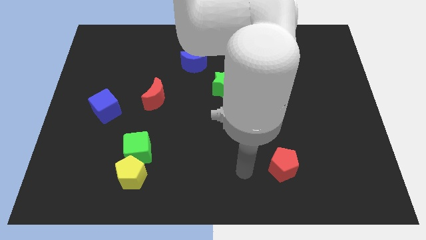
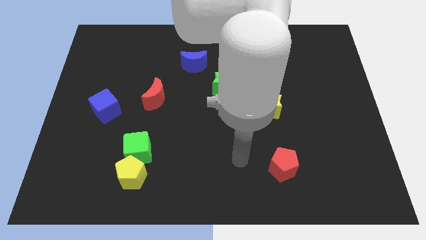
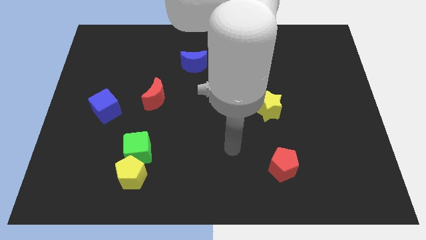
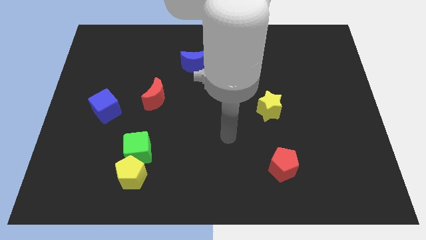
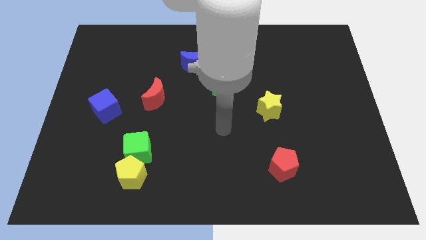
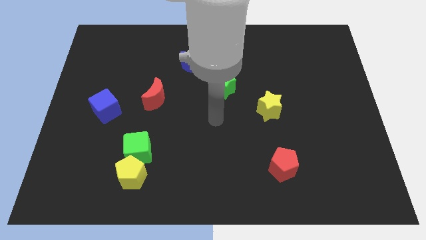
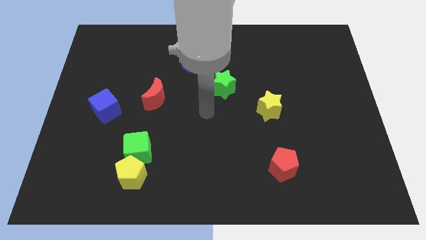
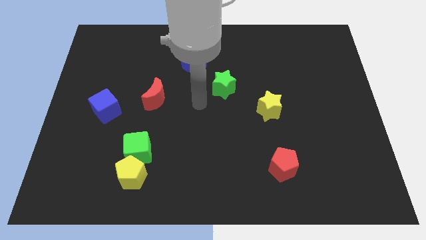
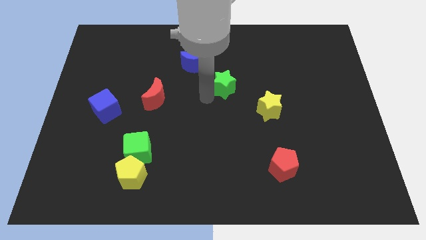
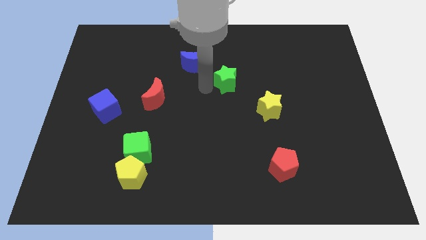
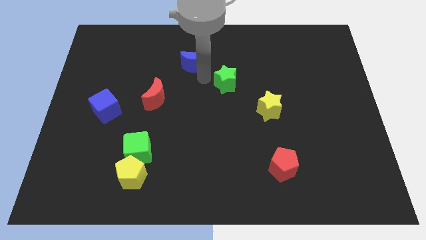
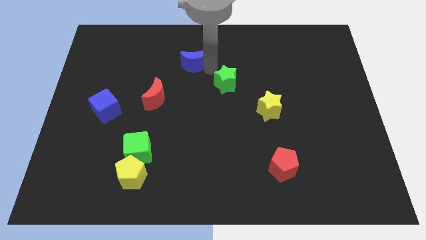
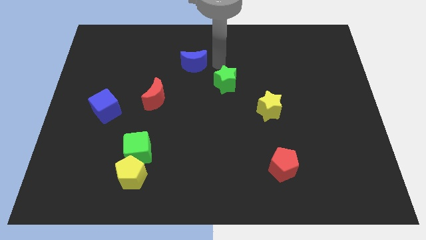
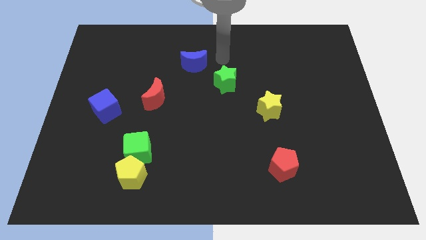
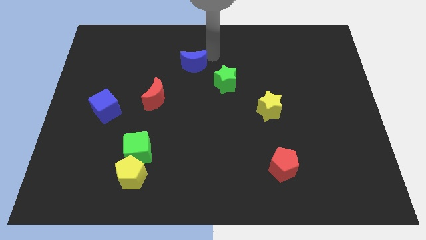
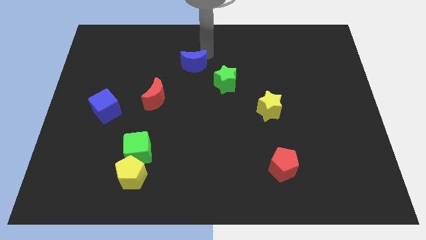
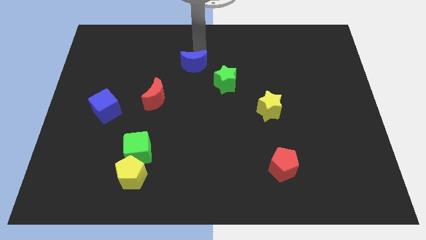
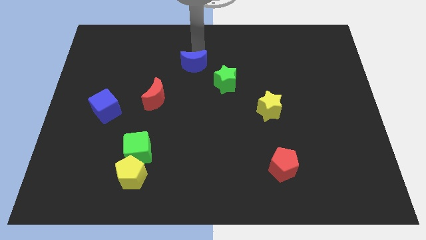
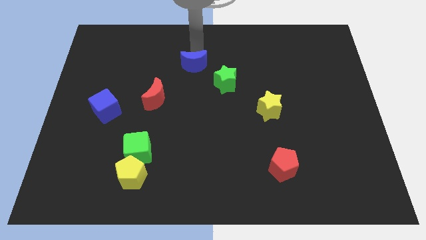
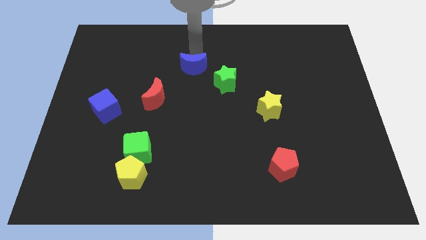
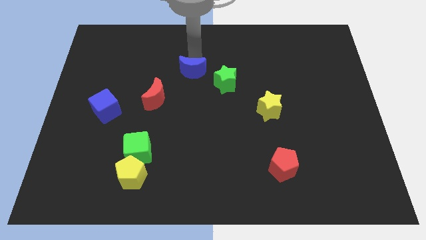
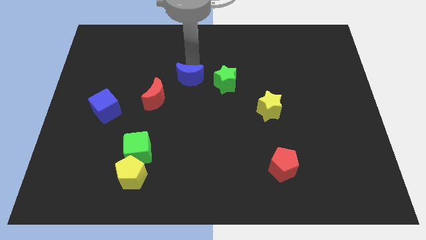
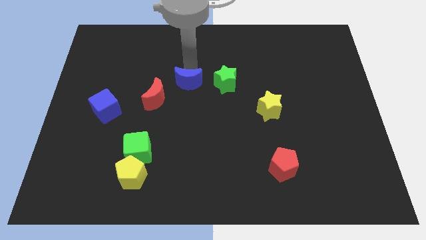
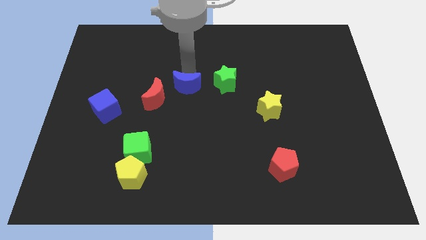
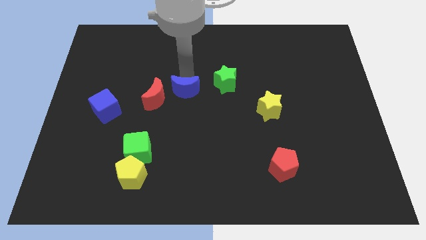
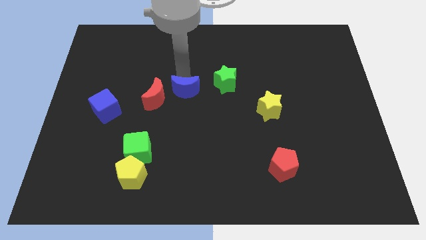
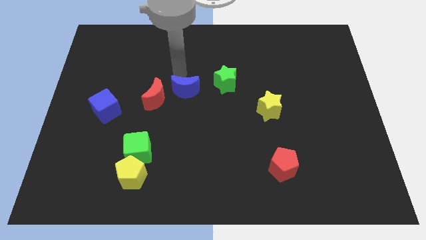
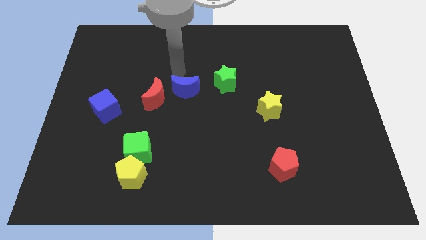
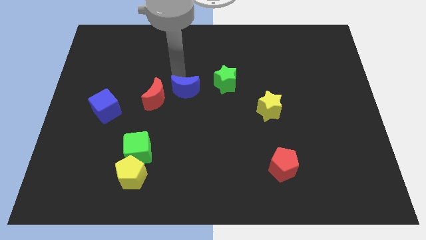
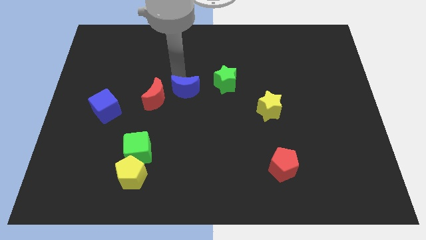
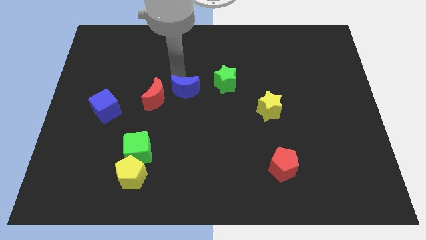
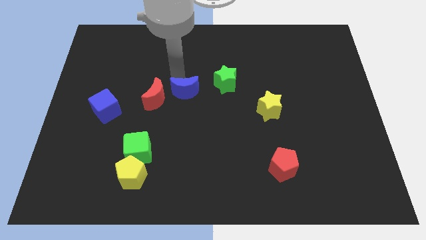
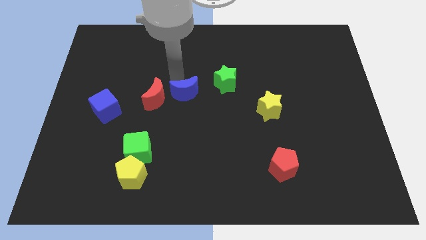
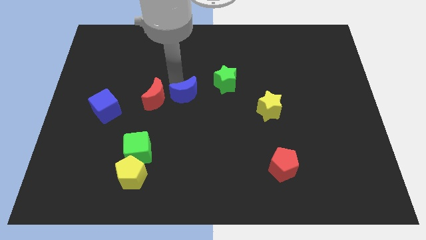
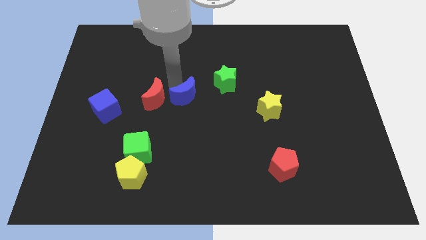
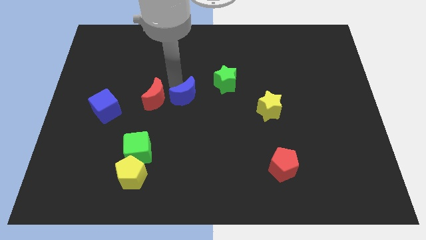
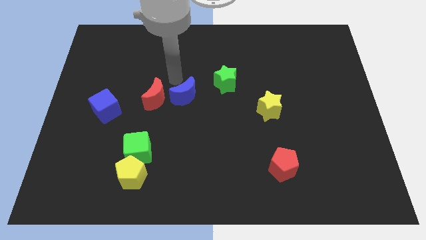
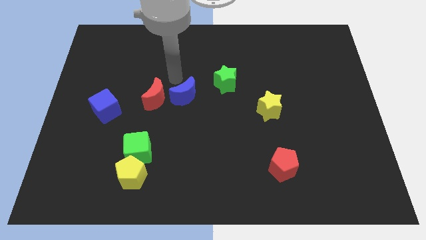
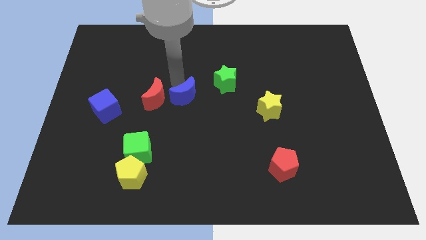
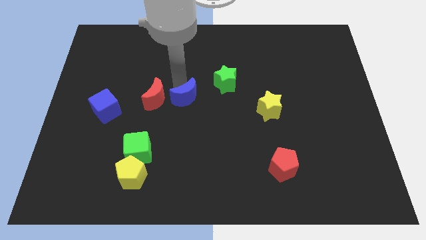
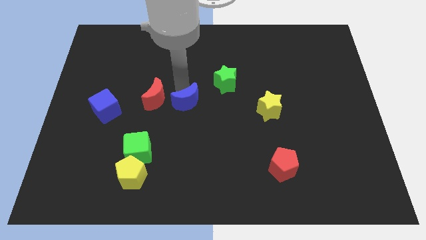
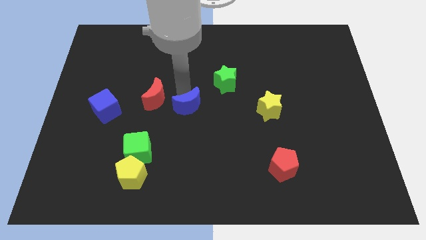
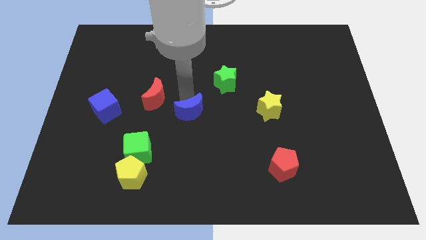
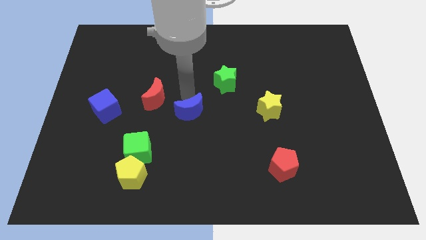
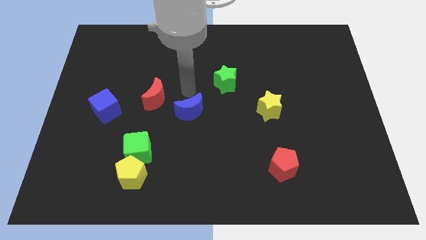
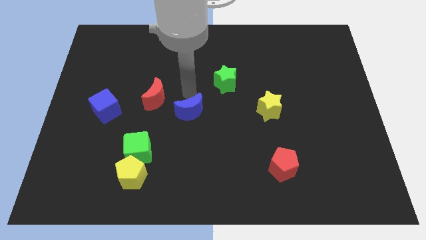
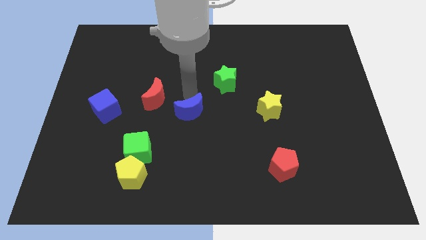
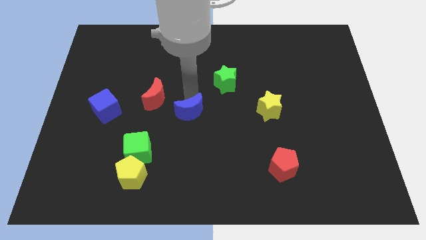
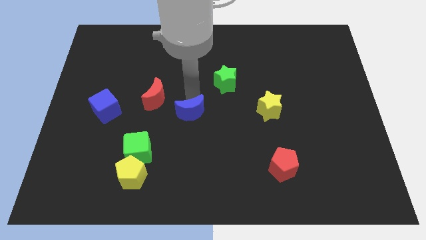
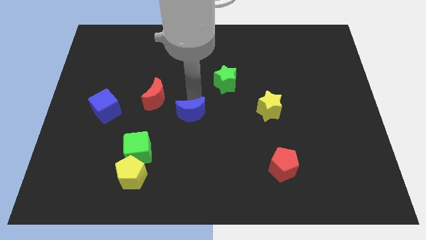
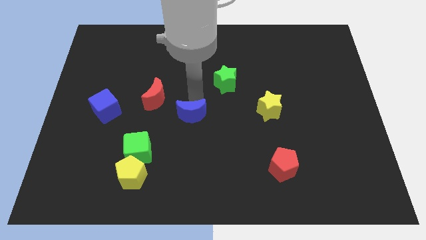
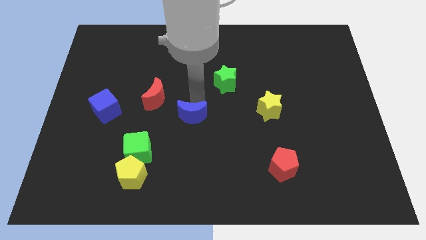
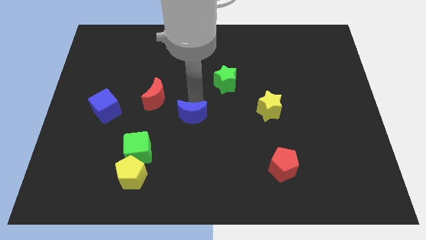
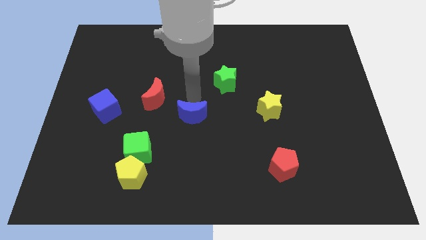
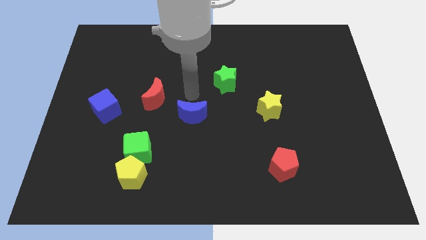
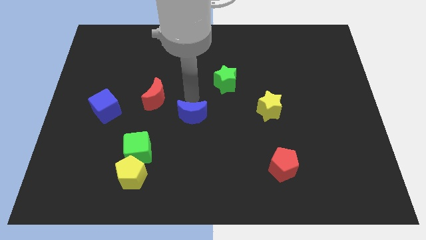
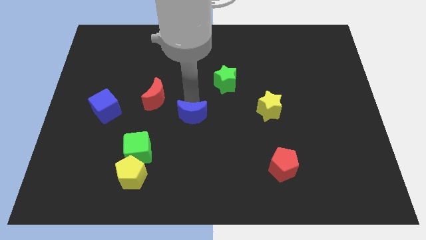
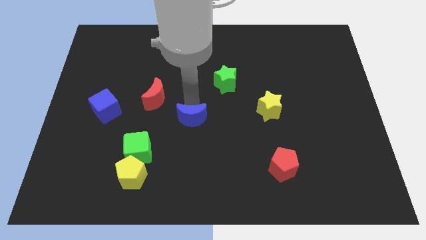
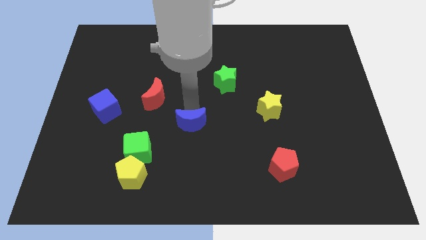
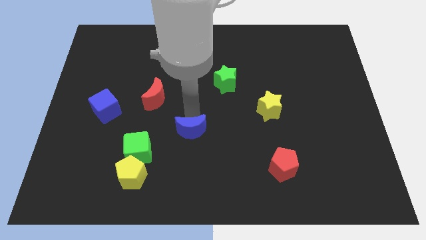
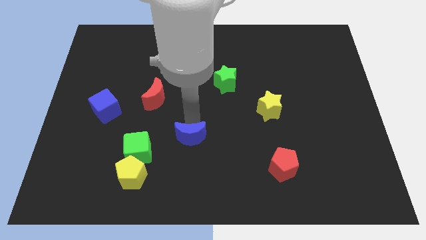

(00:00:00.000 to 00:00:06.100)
move the blue moon to the right side of the green cube

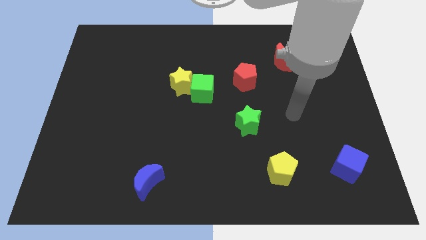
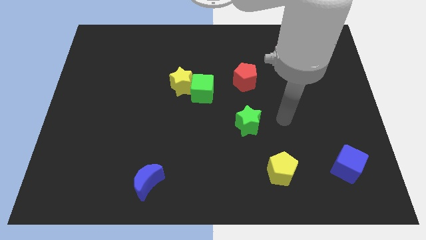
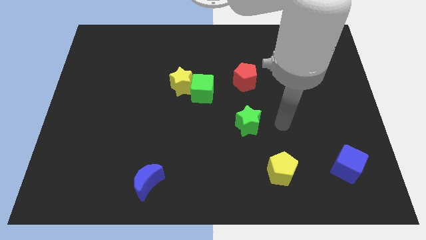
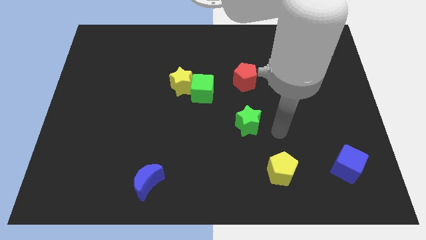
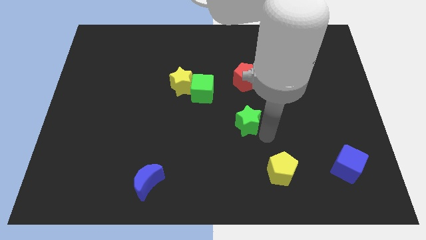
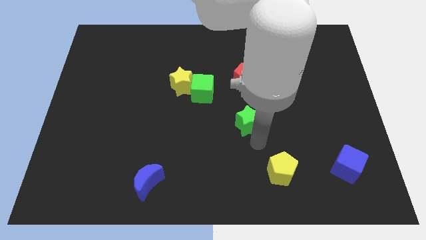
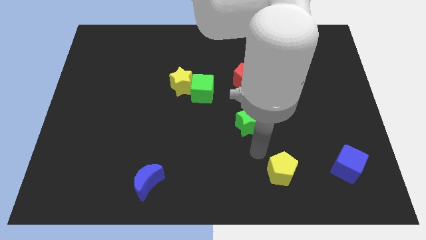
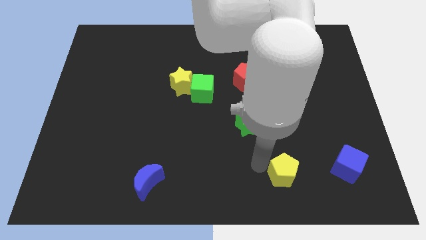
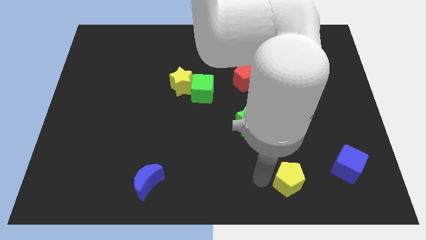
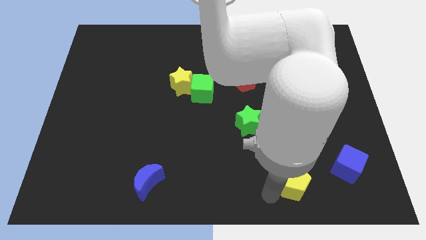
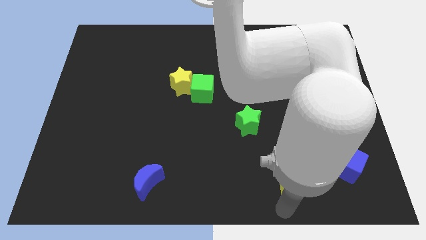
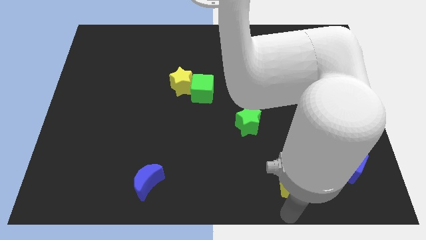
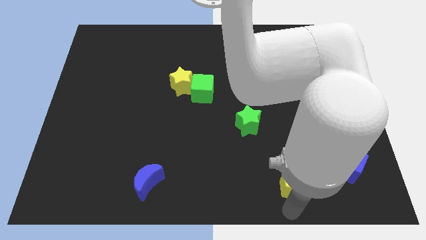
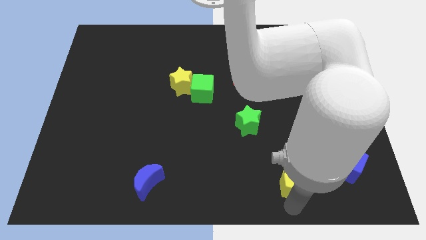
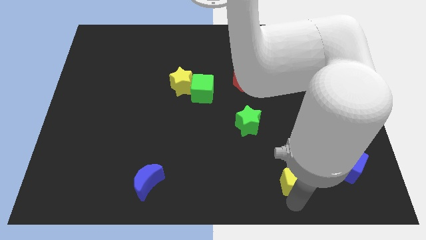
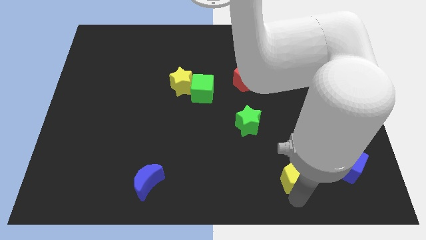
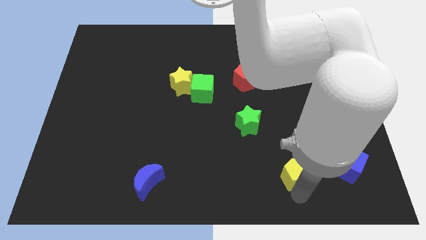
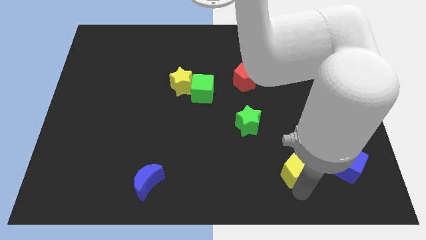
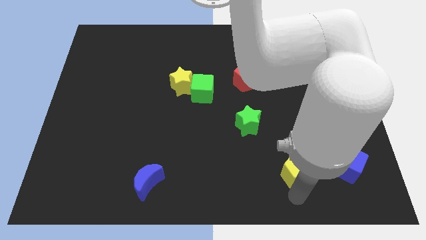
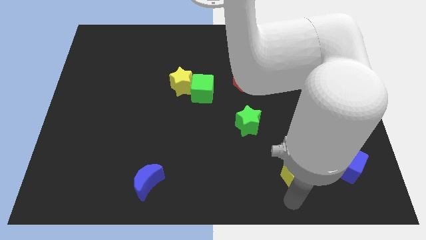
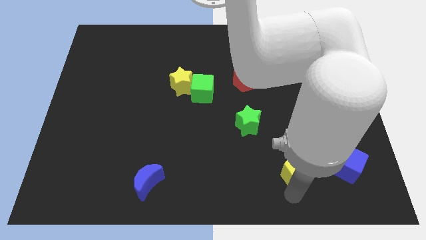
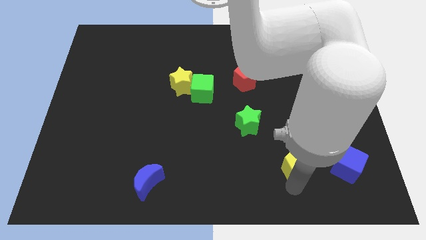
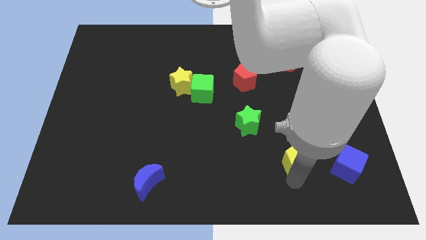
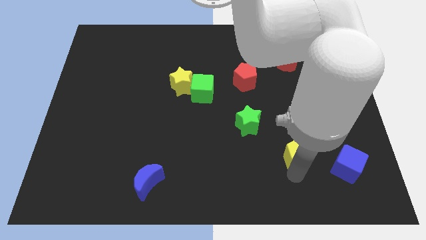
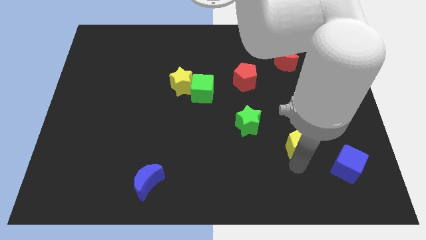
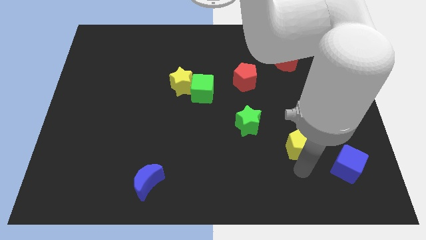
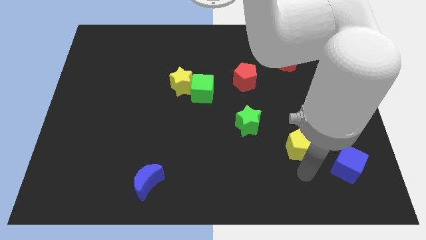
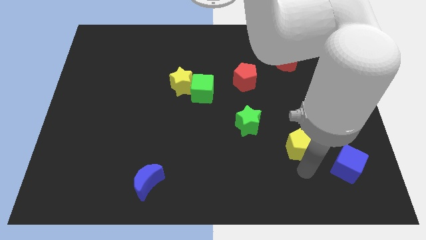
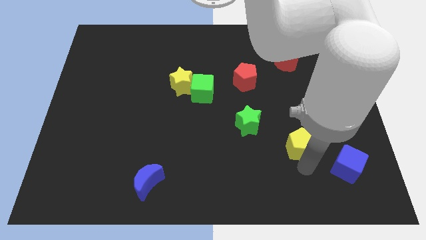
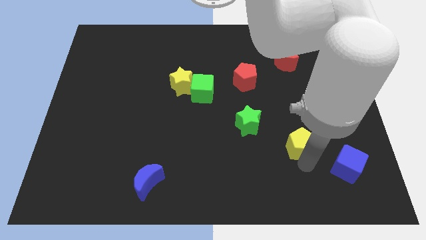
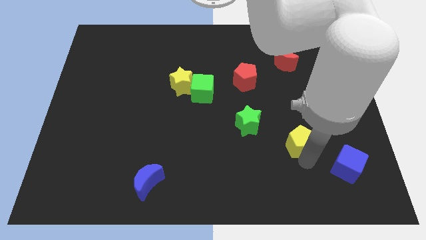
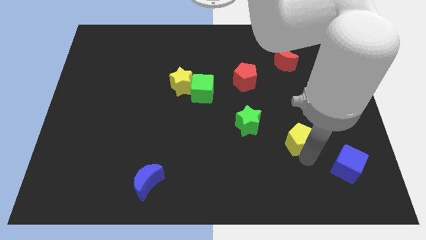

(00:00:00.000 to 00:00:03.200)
put the yellow pentagon just right of the green star
